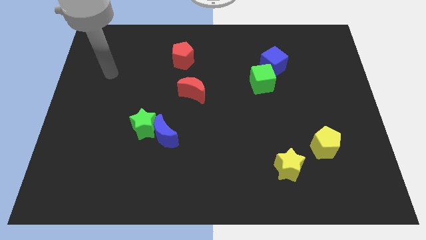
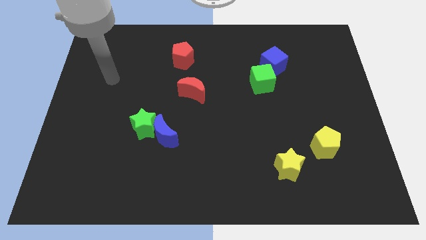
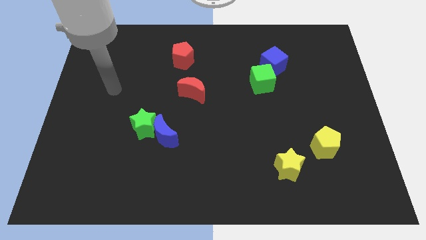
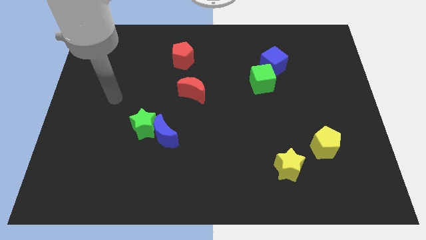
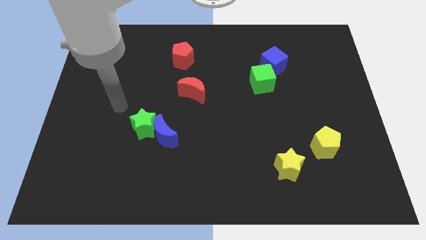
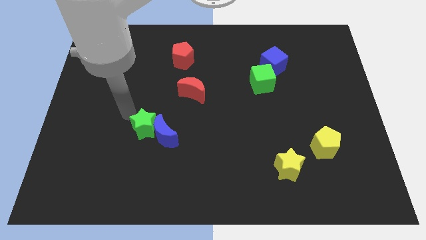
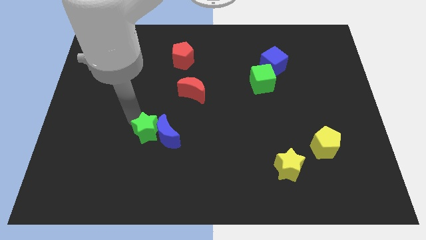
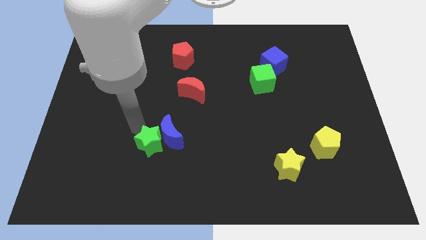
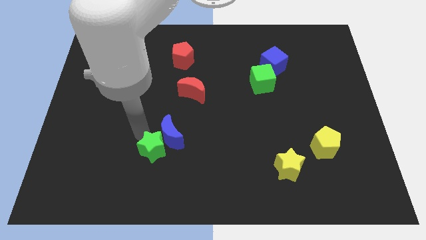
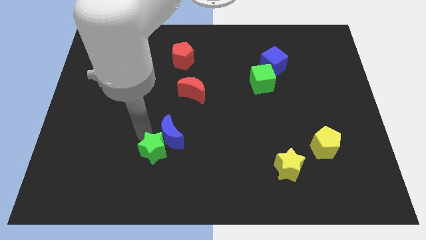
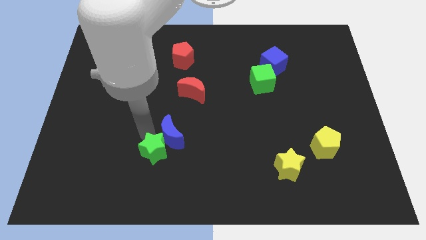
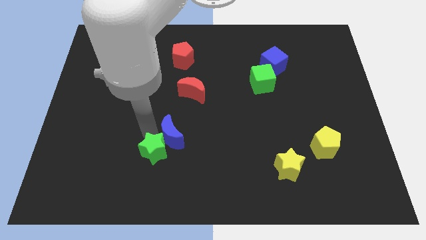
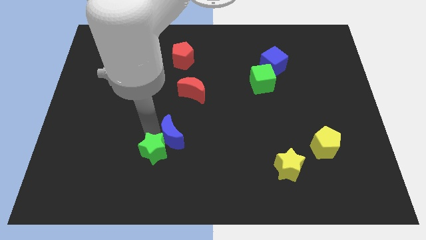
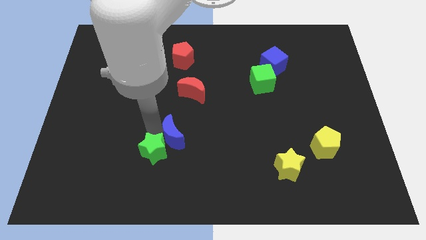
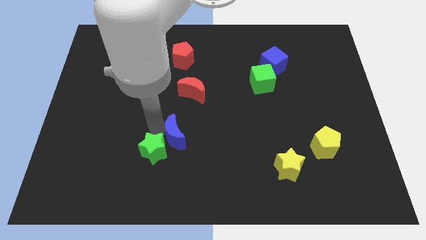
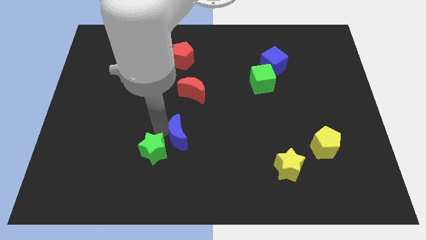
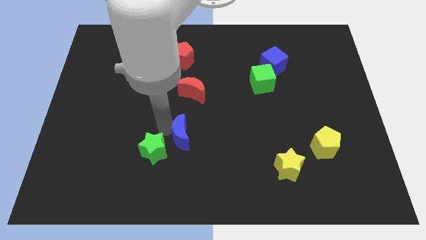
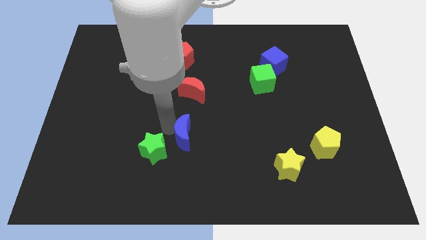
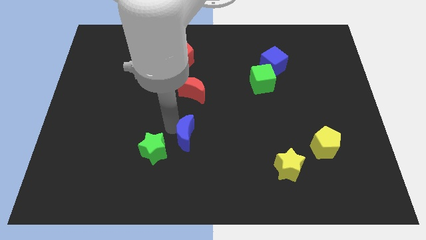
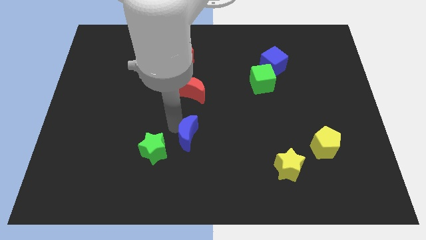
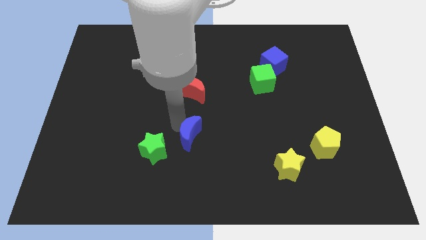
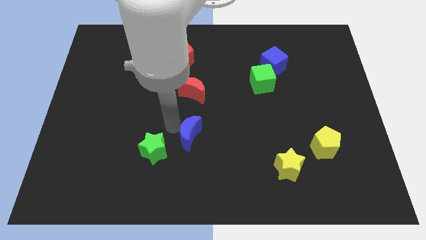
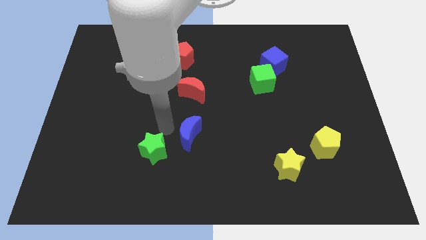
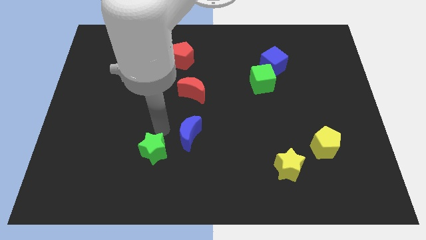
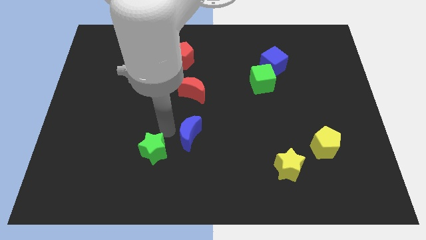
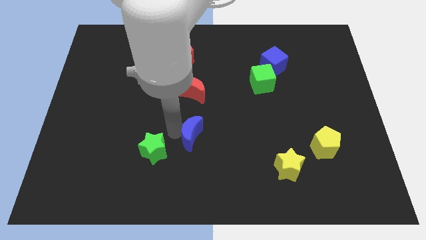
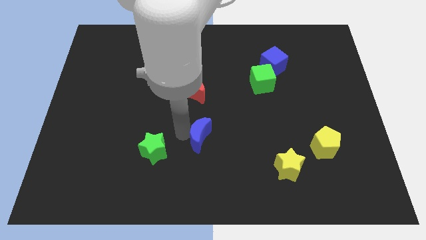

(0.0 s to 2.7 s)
slightly push the blue moon to the right

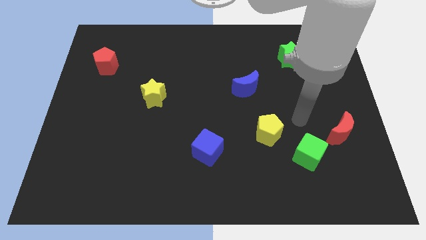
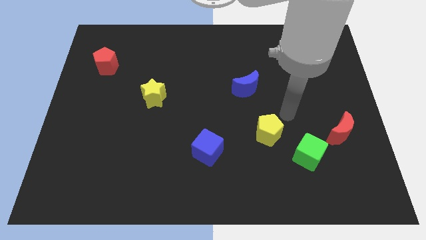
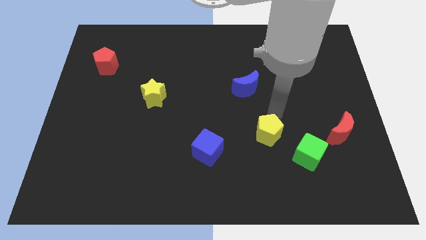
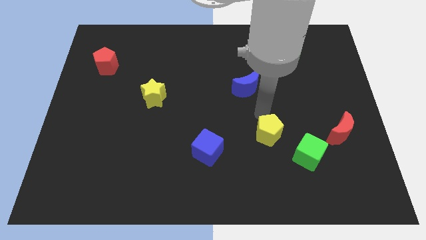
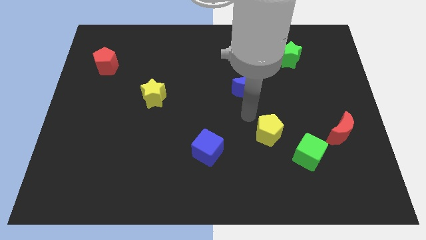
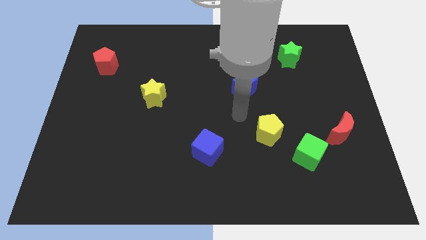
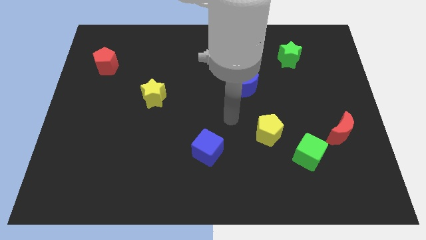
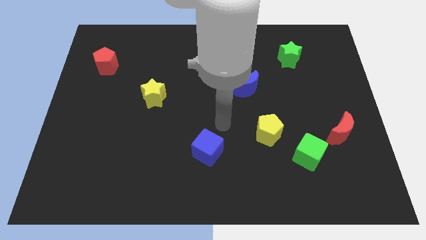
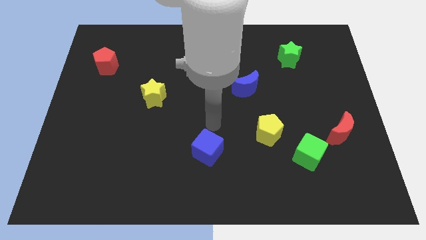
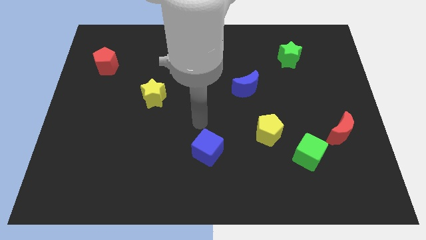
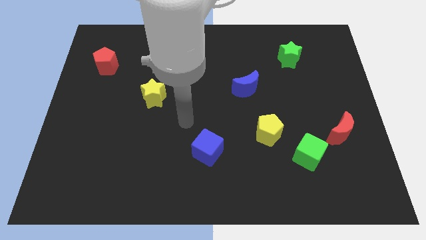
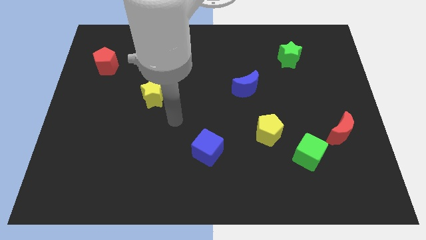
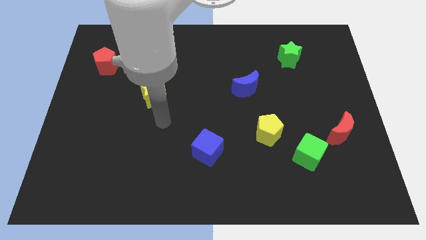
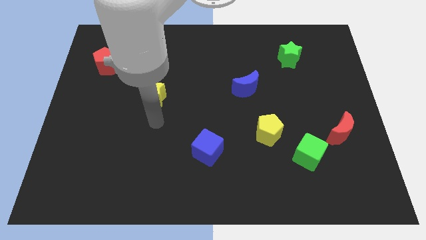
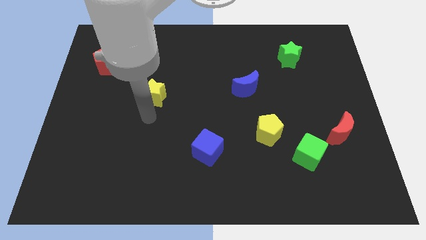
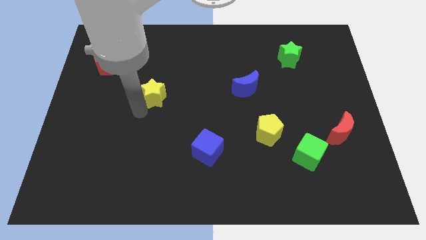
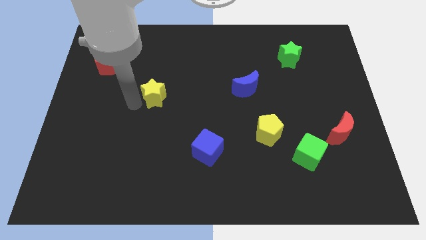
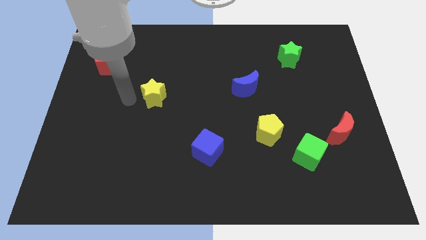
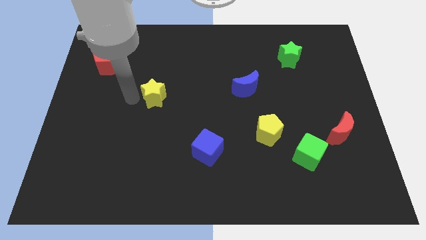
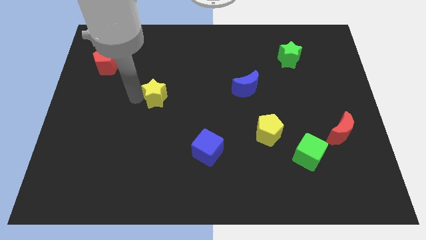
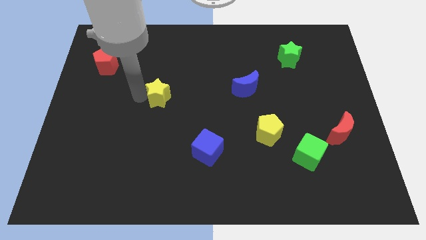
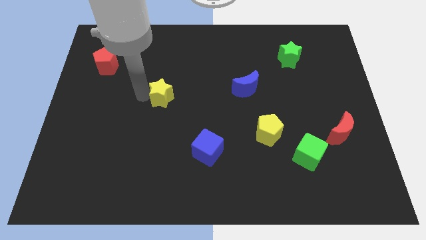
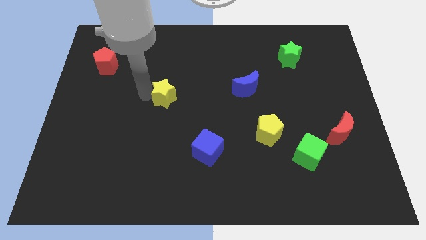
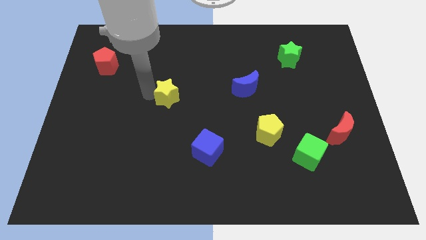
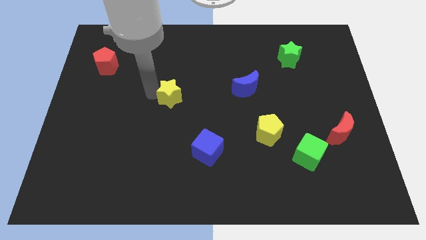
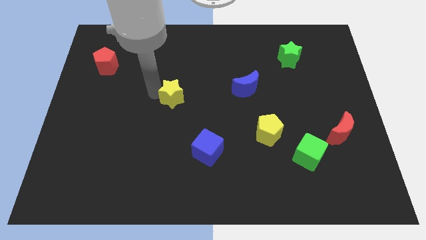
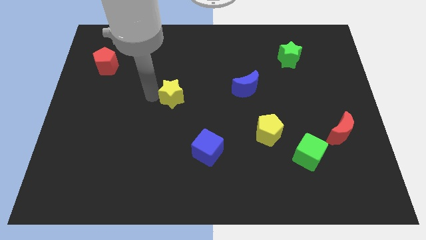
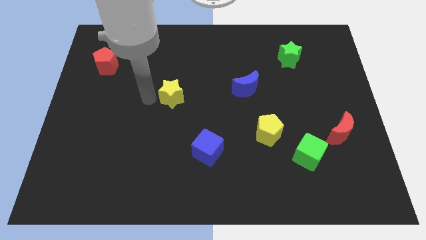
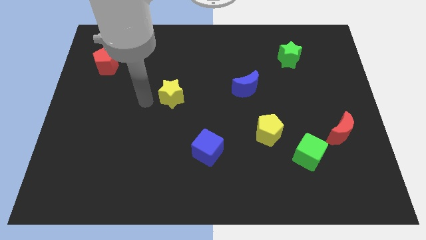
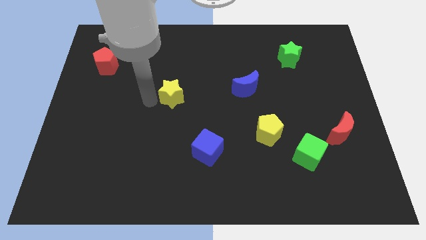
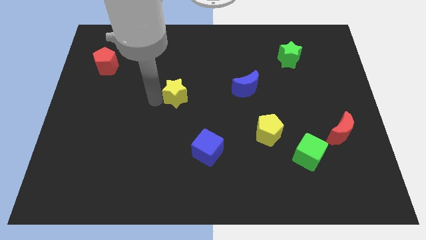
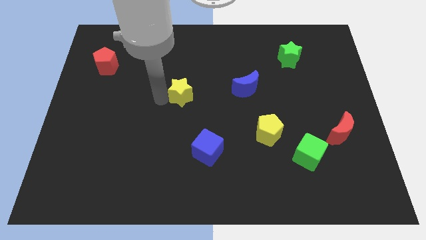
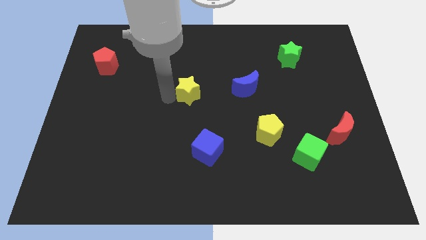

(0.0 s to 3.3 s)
slightly push the yellow star to the right

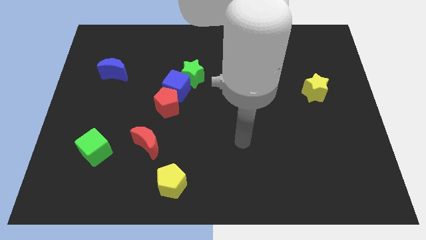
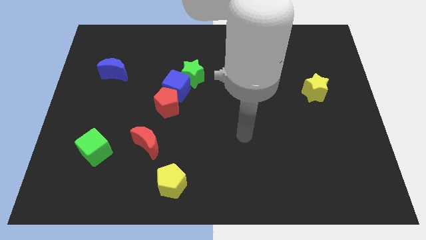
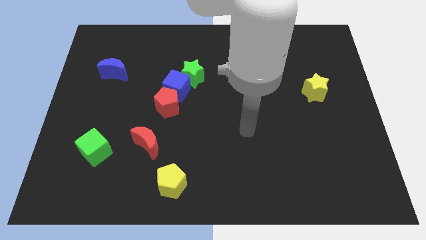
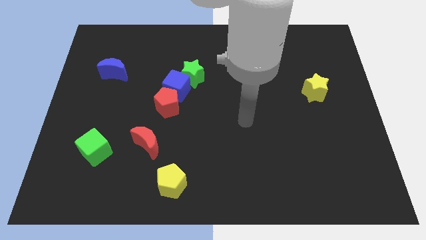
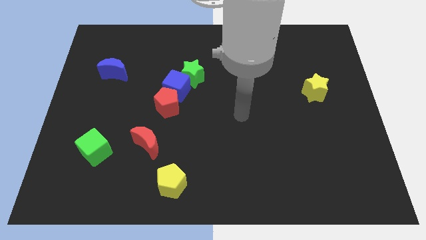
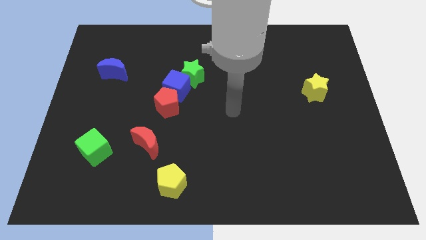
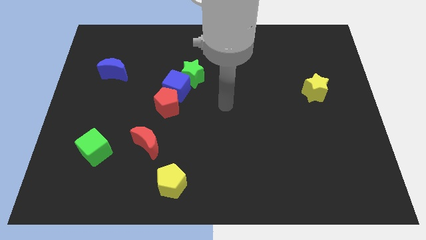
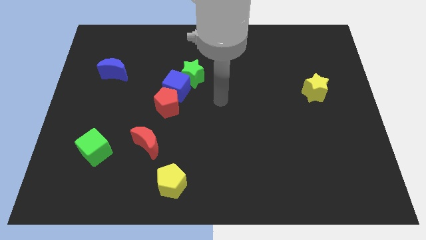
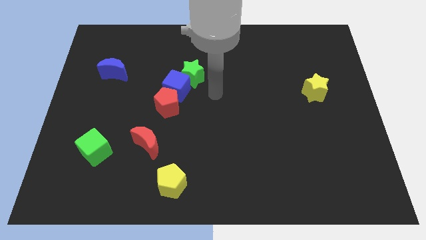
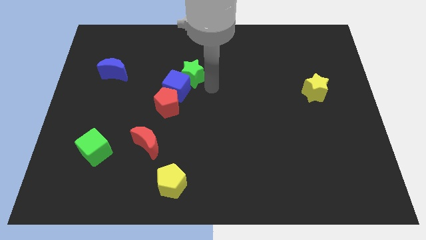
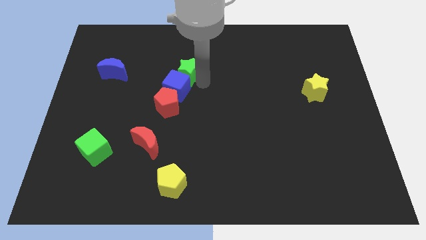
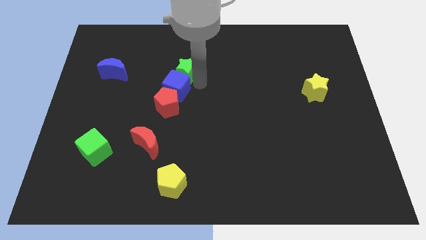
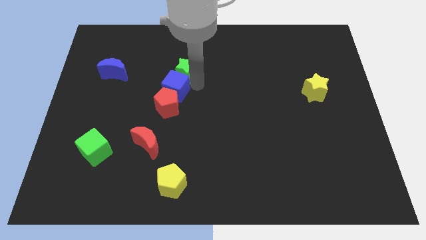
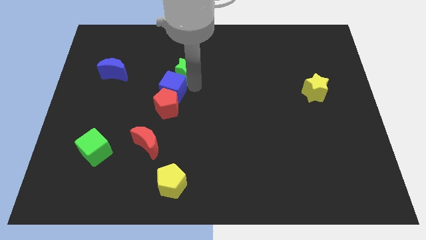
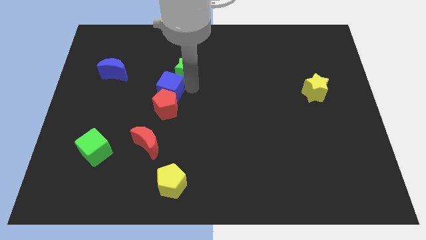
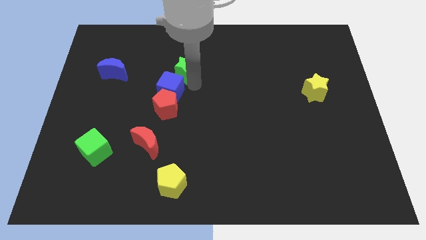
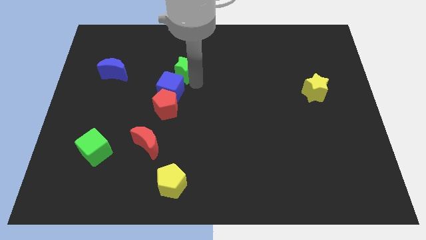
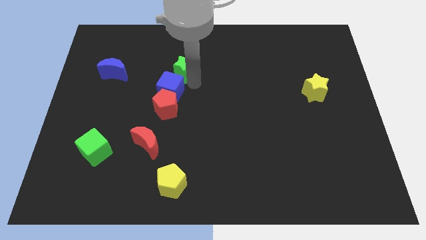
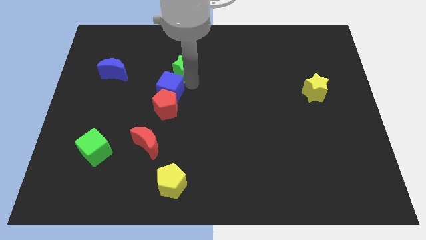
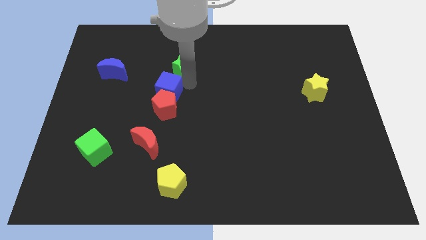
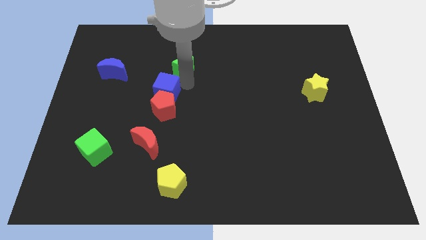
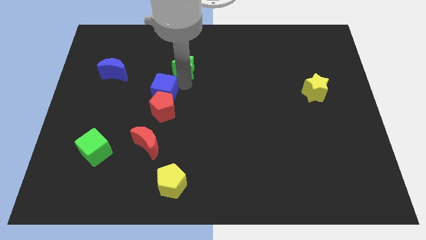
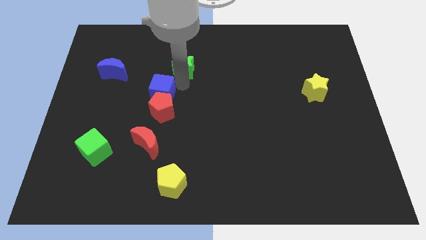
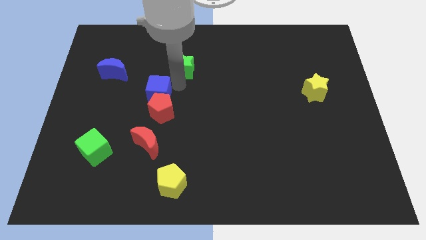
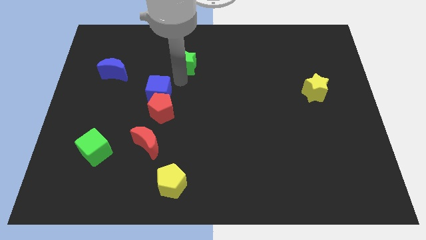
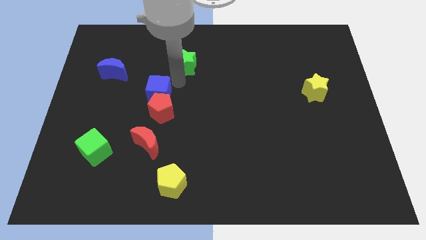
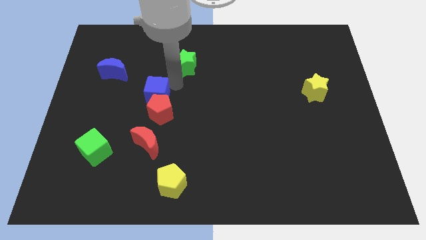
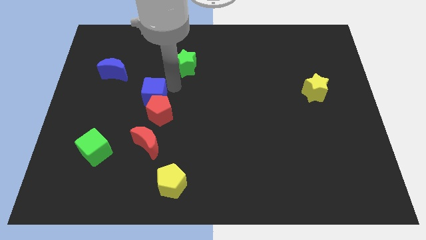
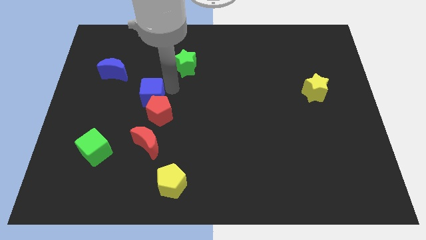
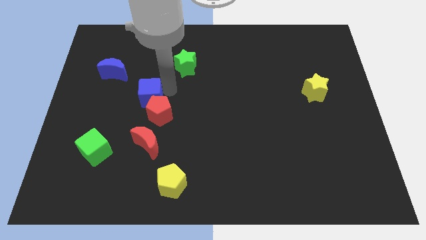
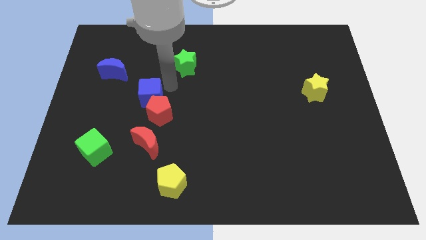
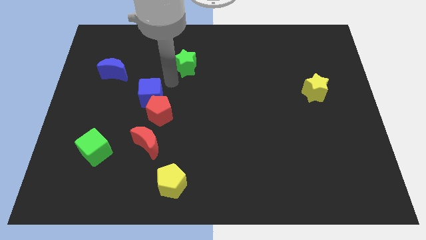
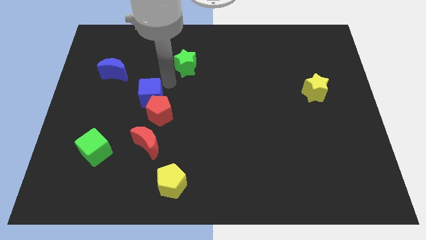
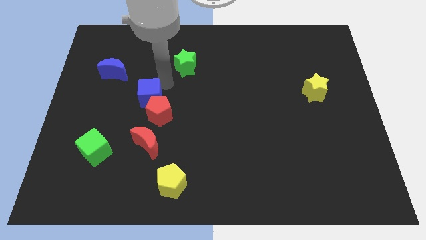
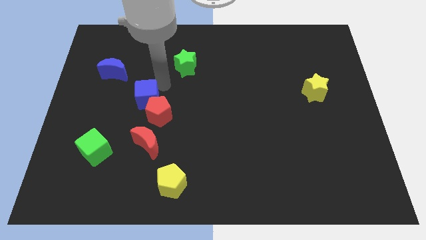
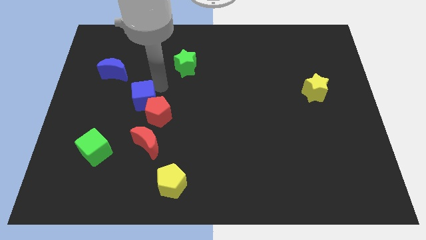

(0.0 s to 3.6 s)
move the blue cube a little diagonally down and left
